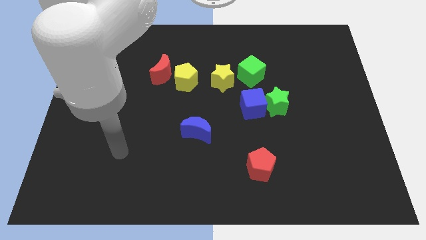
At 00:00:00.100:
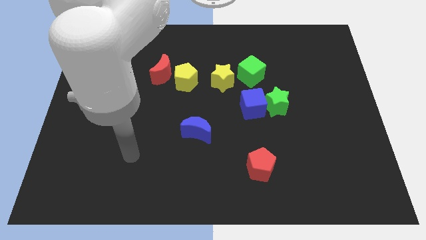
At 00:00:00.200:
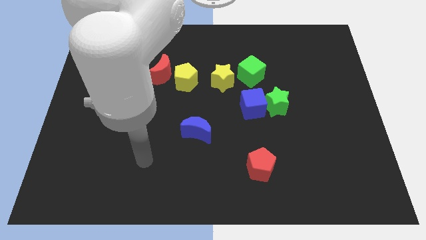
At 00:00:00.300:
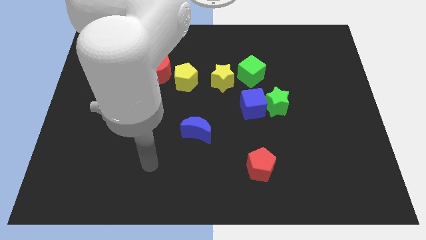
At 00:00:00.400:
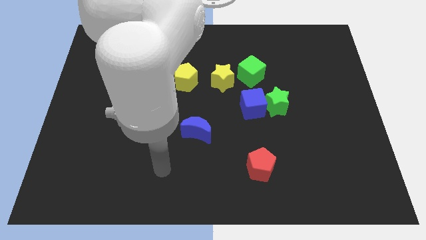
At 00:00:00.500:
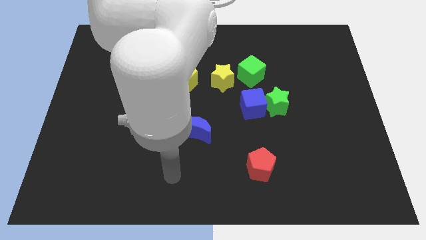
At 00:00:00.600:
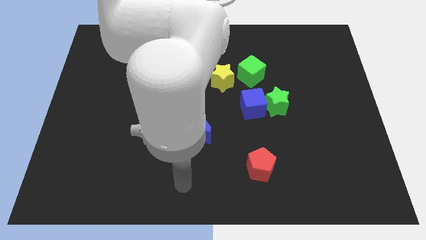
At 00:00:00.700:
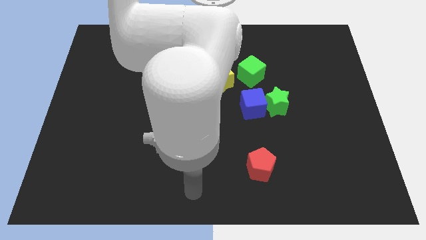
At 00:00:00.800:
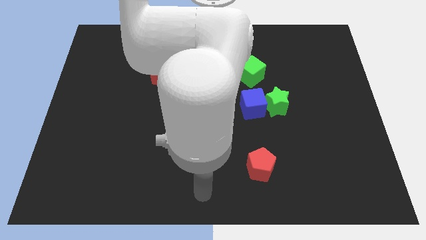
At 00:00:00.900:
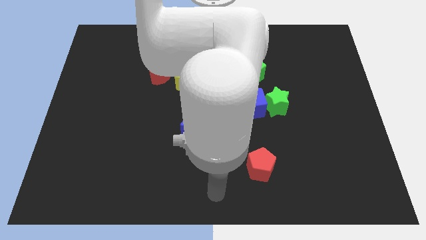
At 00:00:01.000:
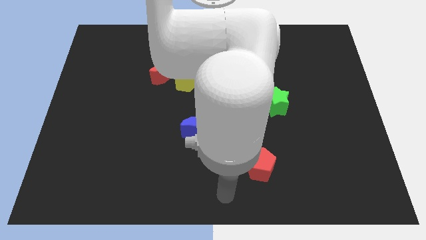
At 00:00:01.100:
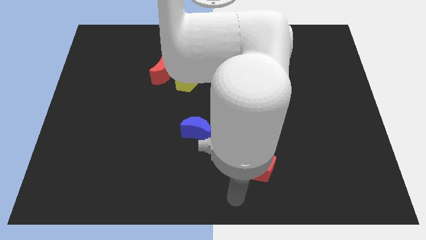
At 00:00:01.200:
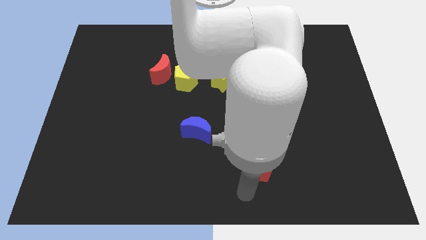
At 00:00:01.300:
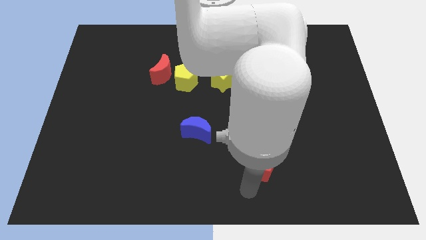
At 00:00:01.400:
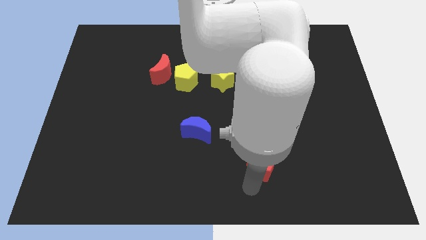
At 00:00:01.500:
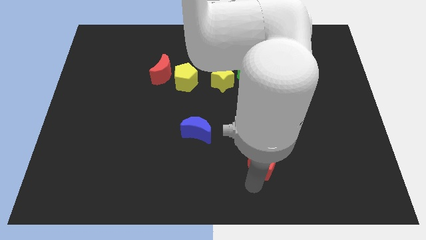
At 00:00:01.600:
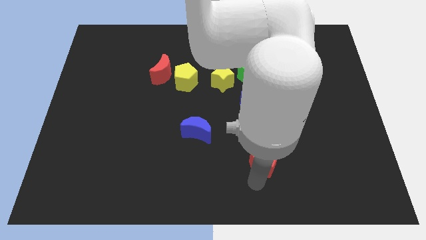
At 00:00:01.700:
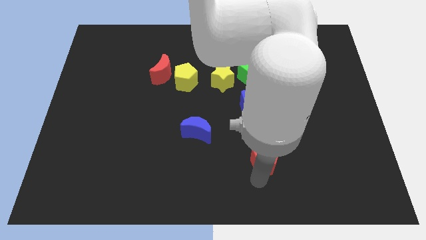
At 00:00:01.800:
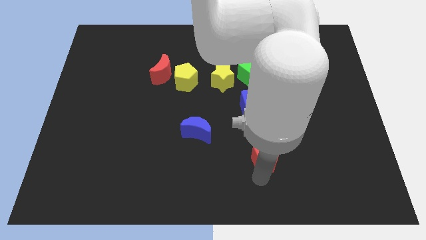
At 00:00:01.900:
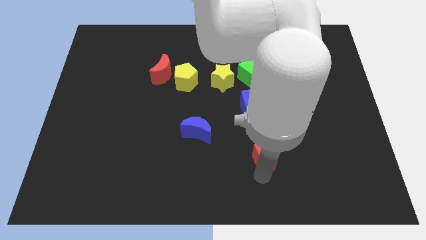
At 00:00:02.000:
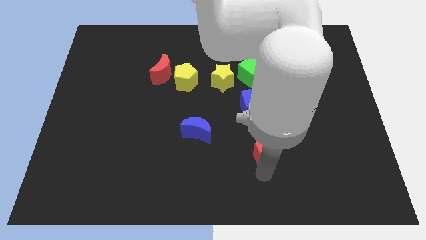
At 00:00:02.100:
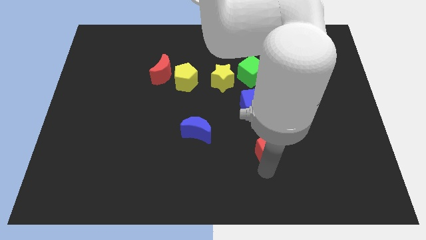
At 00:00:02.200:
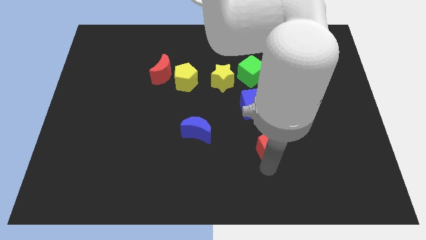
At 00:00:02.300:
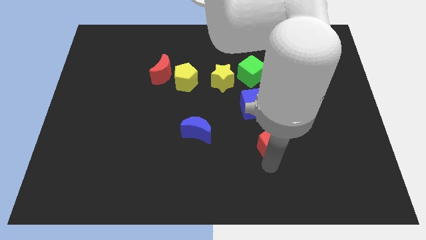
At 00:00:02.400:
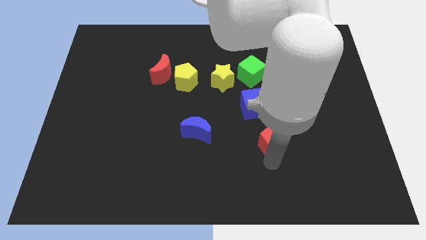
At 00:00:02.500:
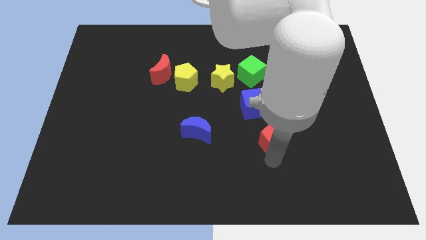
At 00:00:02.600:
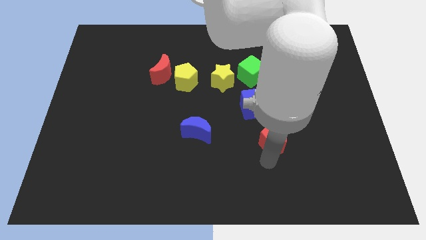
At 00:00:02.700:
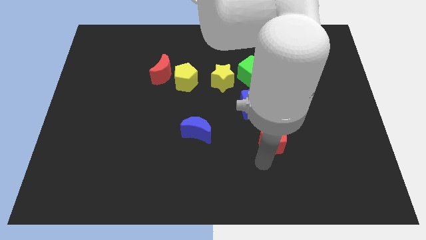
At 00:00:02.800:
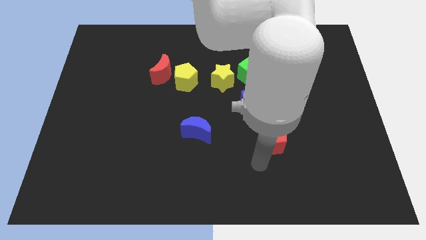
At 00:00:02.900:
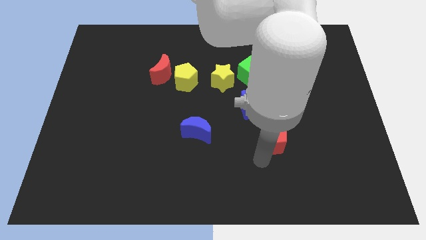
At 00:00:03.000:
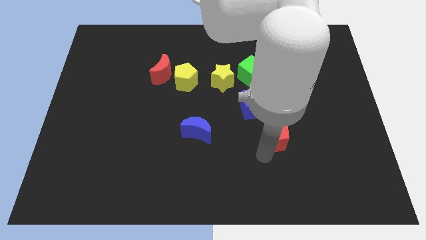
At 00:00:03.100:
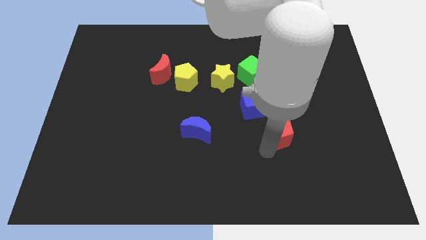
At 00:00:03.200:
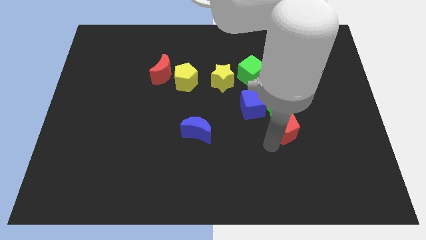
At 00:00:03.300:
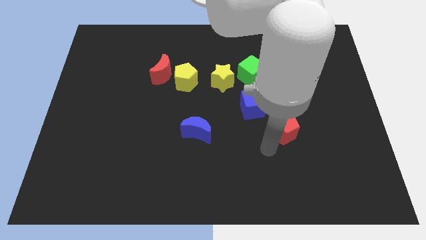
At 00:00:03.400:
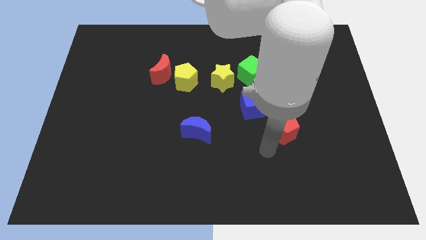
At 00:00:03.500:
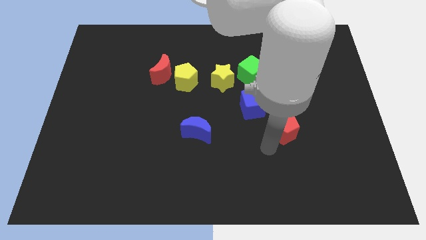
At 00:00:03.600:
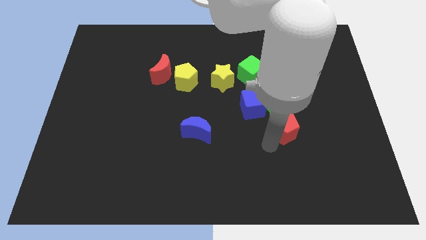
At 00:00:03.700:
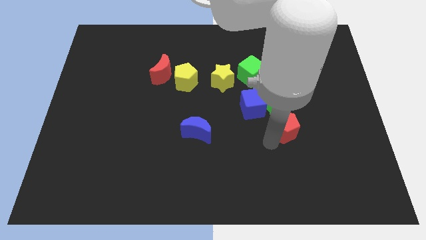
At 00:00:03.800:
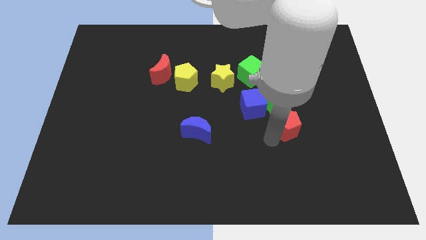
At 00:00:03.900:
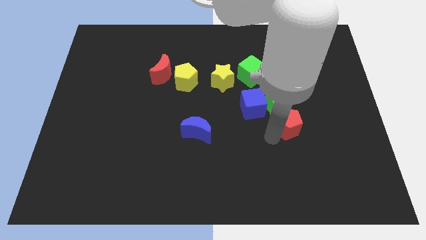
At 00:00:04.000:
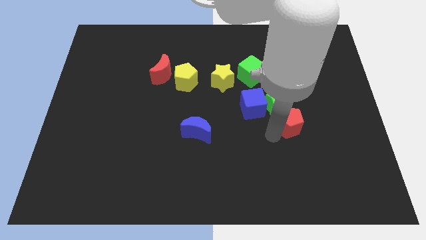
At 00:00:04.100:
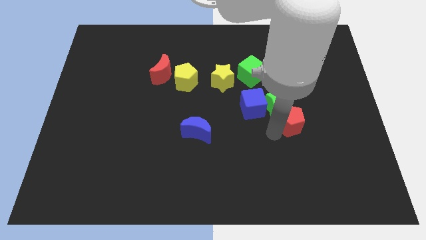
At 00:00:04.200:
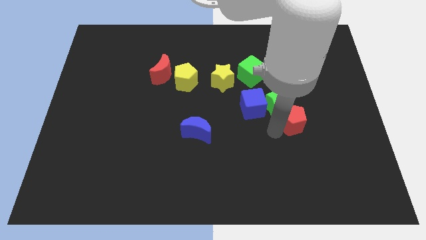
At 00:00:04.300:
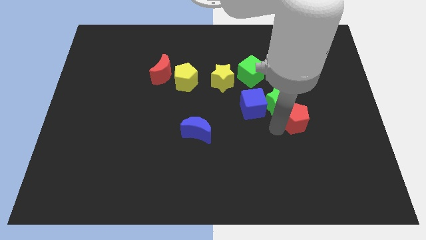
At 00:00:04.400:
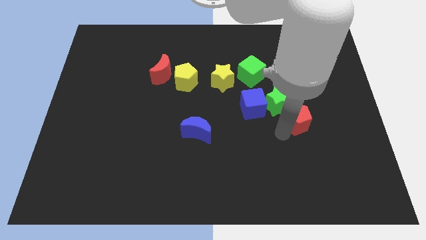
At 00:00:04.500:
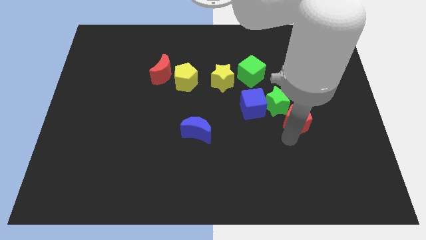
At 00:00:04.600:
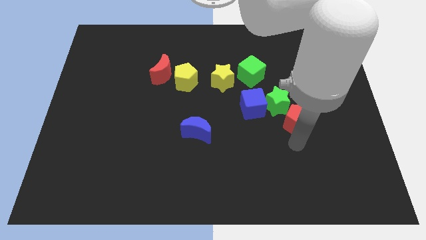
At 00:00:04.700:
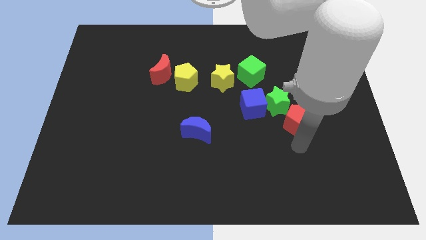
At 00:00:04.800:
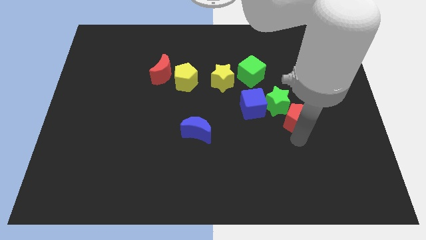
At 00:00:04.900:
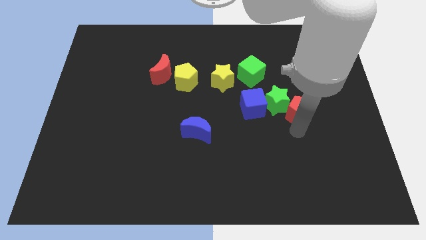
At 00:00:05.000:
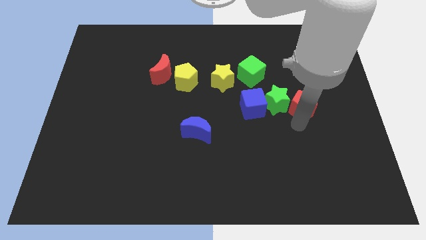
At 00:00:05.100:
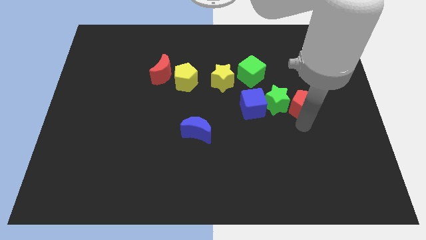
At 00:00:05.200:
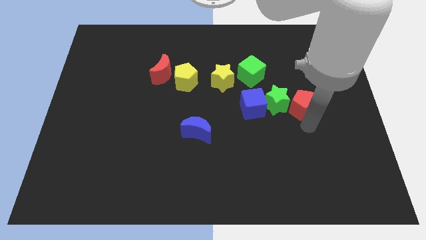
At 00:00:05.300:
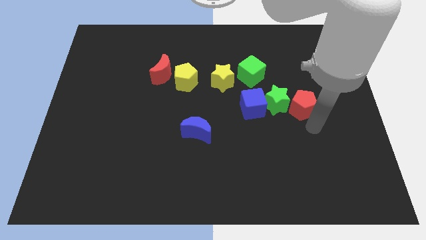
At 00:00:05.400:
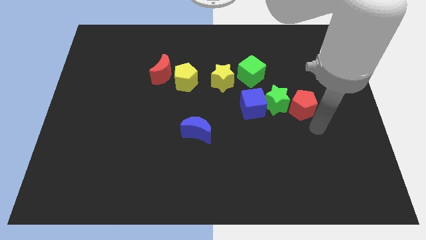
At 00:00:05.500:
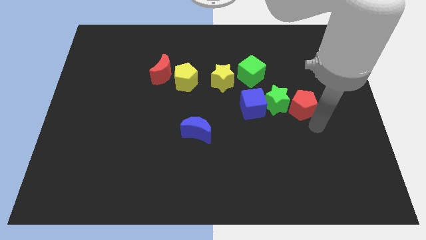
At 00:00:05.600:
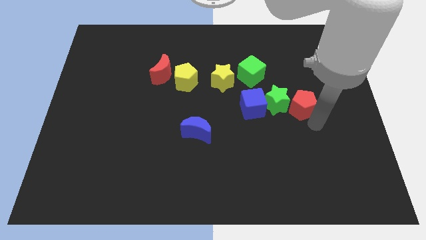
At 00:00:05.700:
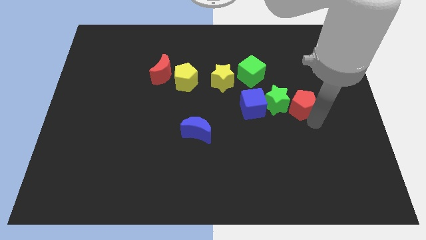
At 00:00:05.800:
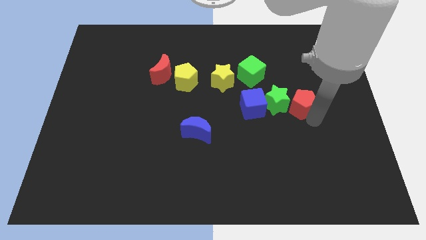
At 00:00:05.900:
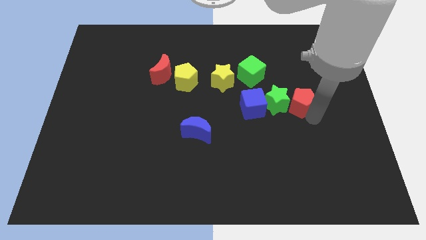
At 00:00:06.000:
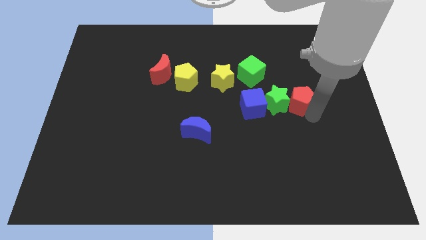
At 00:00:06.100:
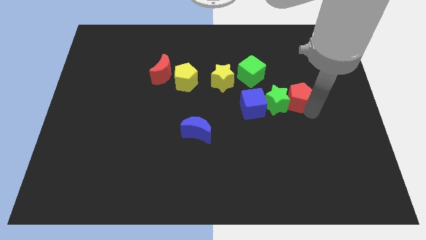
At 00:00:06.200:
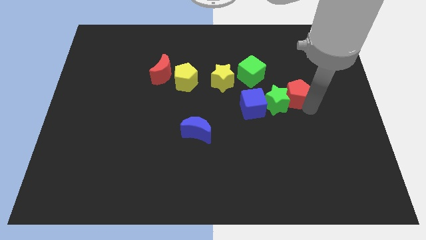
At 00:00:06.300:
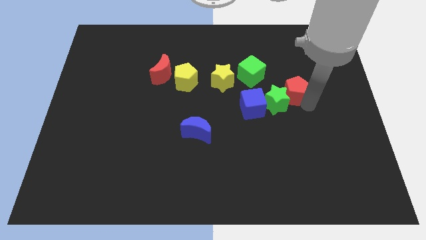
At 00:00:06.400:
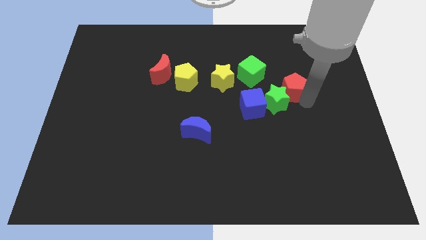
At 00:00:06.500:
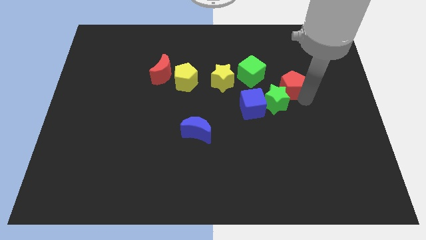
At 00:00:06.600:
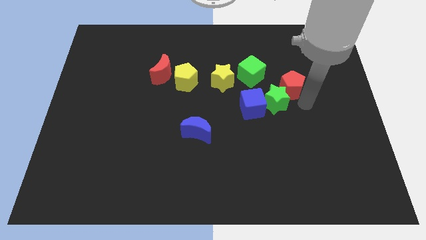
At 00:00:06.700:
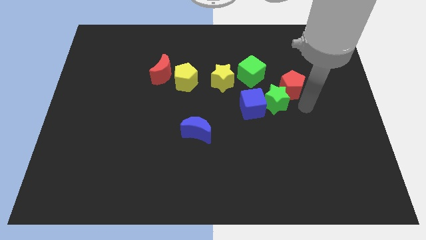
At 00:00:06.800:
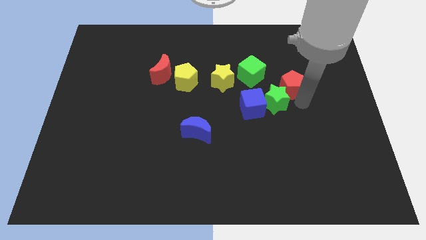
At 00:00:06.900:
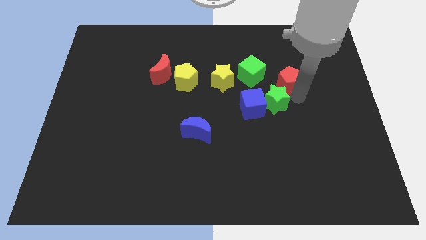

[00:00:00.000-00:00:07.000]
slide the red pentagon upwards

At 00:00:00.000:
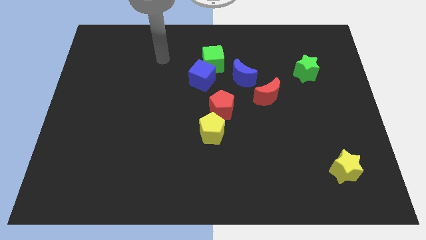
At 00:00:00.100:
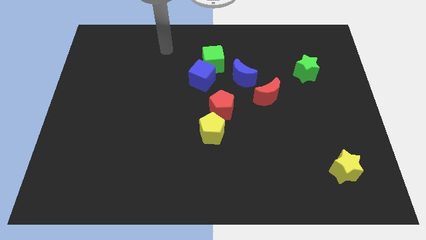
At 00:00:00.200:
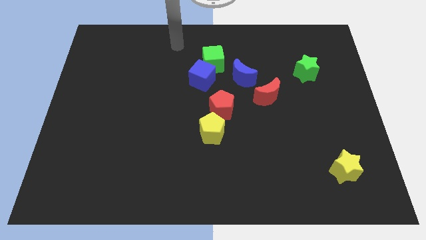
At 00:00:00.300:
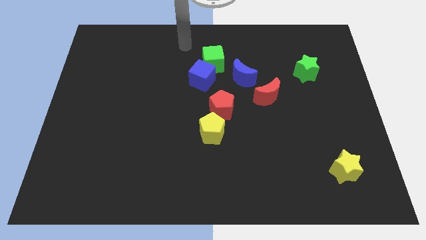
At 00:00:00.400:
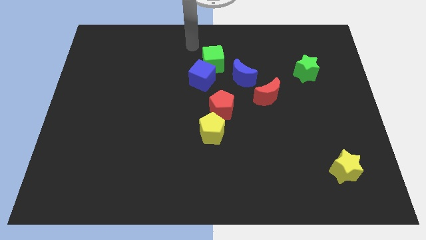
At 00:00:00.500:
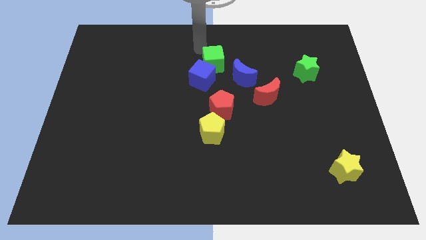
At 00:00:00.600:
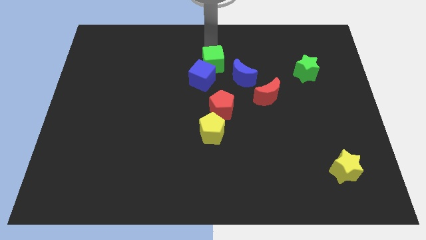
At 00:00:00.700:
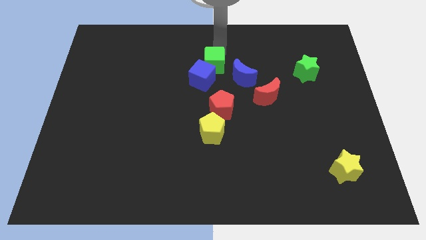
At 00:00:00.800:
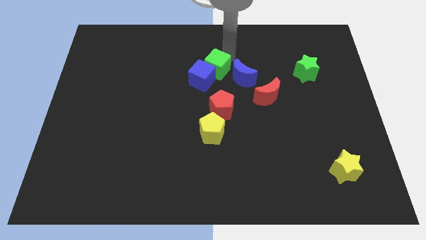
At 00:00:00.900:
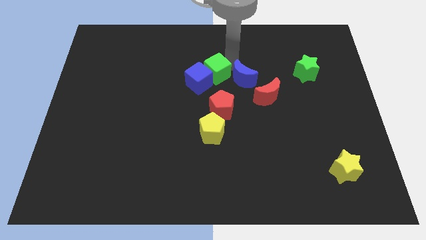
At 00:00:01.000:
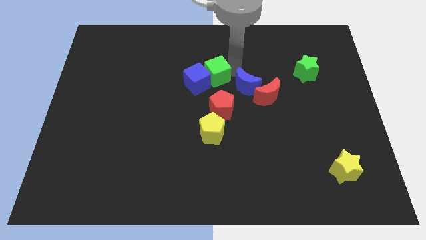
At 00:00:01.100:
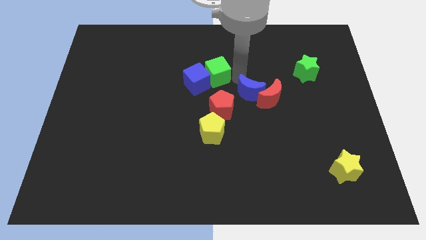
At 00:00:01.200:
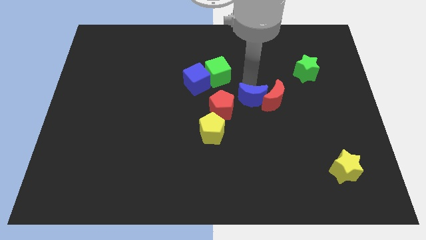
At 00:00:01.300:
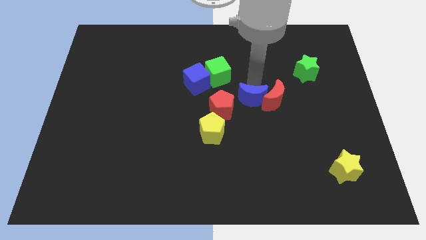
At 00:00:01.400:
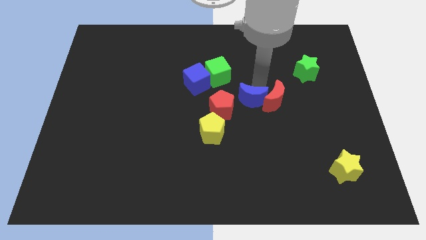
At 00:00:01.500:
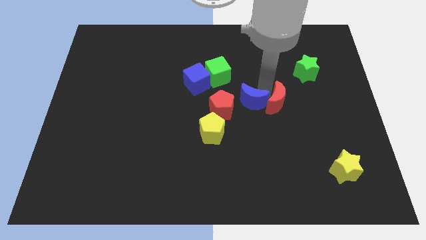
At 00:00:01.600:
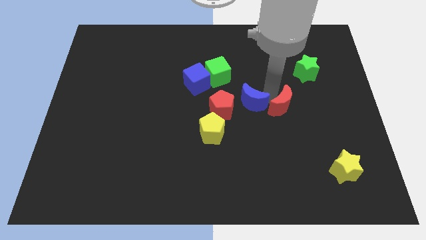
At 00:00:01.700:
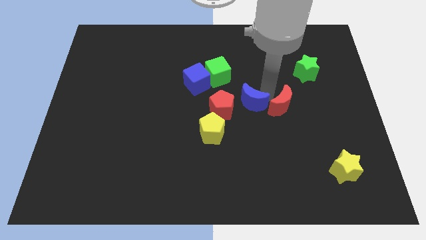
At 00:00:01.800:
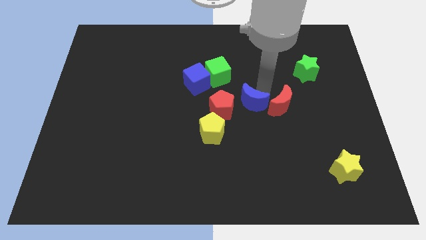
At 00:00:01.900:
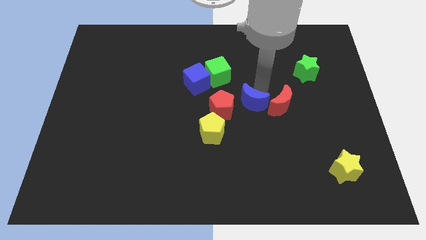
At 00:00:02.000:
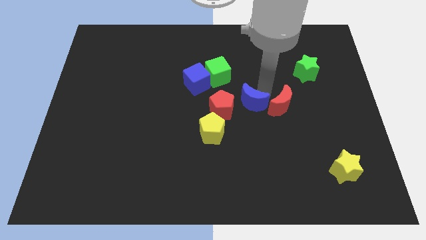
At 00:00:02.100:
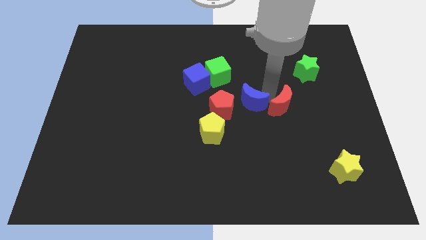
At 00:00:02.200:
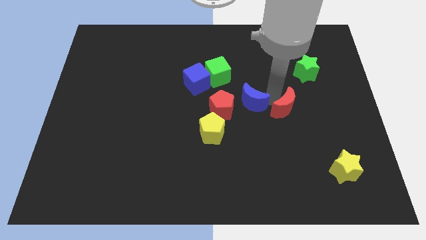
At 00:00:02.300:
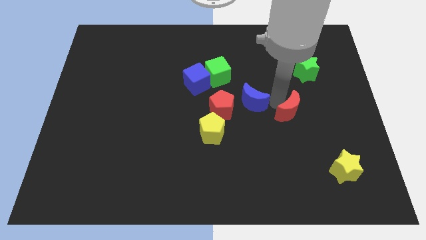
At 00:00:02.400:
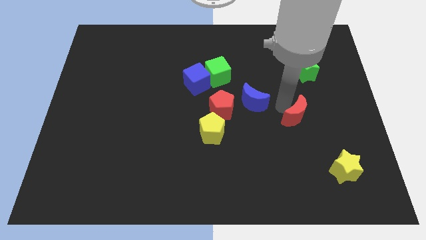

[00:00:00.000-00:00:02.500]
move the red moon downwards and to the right diagonally slightly
